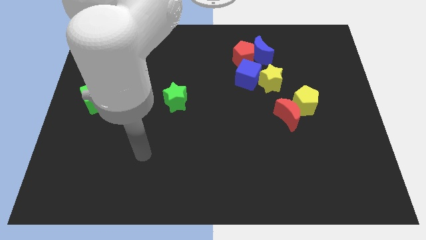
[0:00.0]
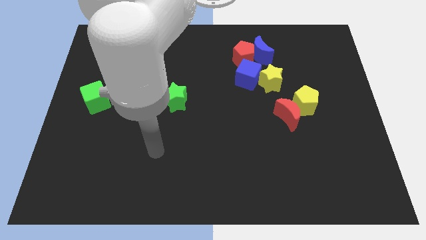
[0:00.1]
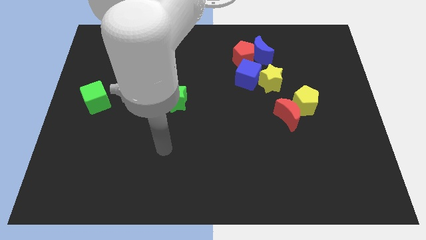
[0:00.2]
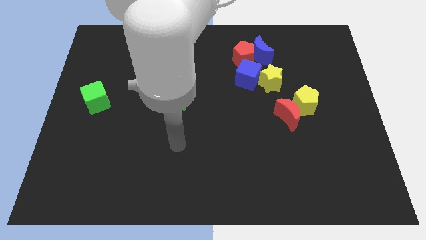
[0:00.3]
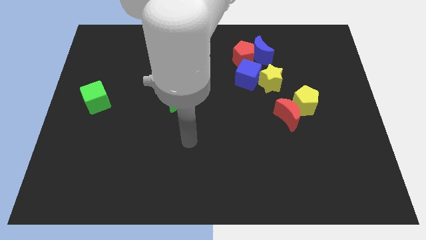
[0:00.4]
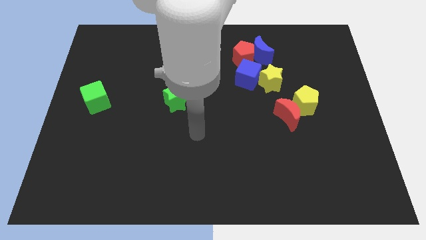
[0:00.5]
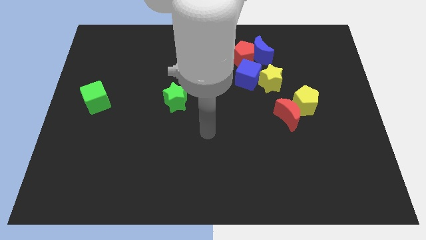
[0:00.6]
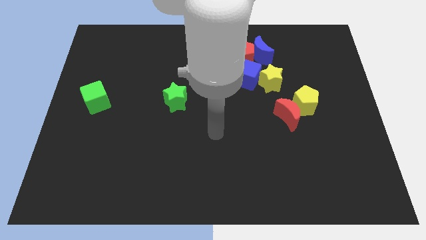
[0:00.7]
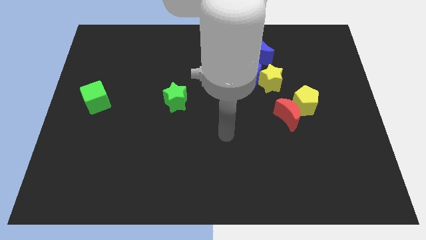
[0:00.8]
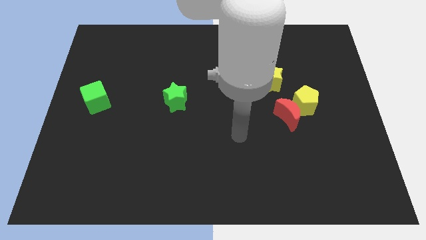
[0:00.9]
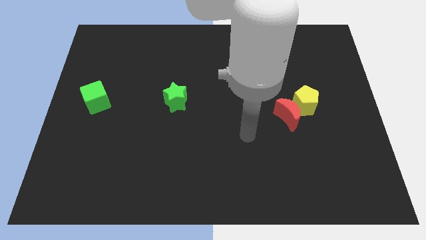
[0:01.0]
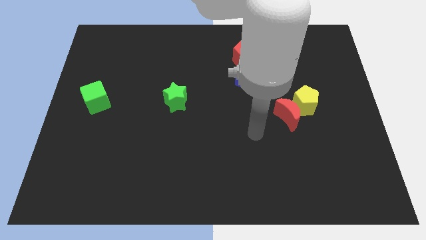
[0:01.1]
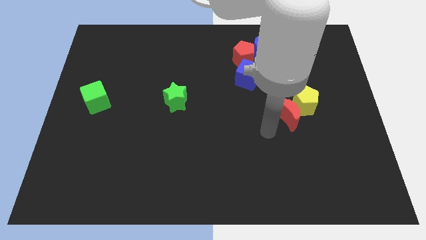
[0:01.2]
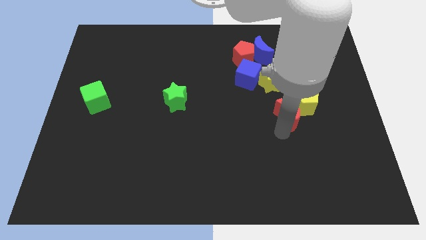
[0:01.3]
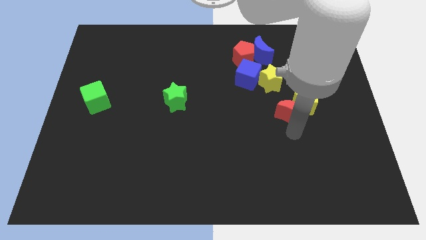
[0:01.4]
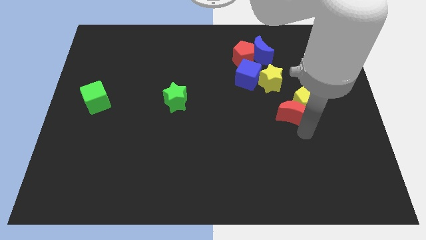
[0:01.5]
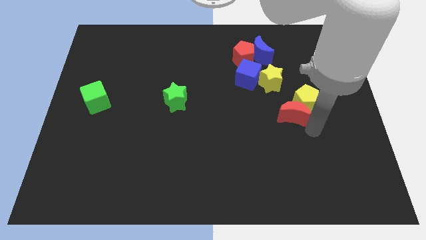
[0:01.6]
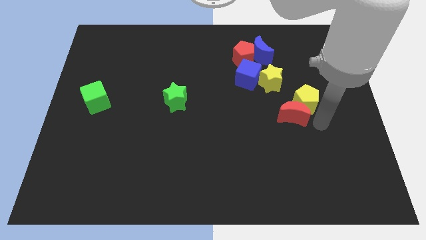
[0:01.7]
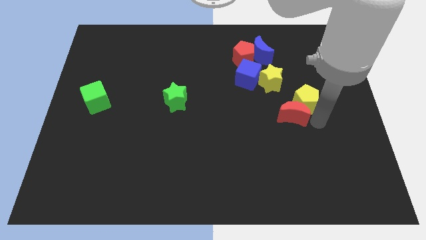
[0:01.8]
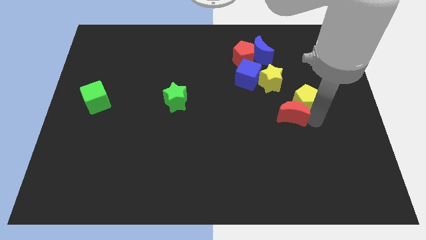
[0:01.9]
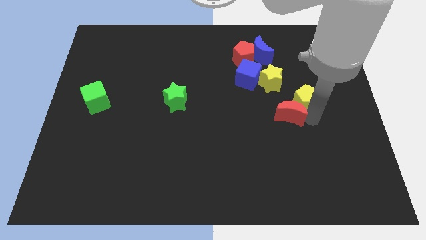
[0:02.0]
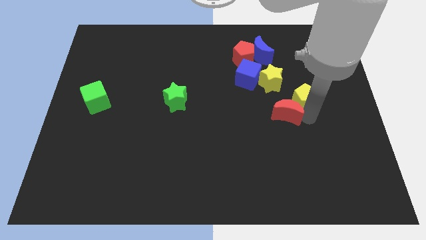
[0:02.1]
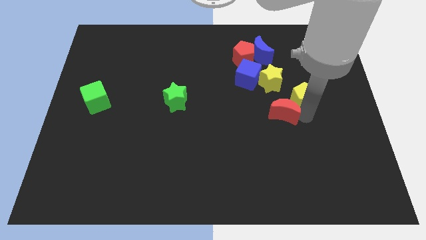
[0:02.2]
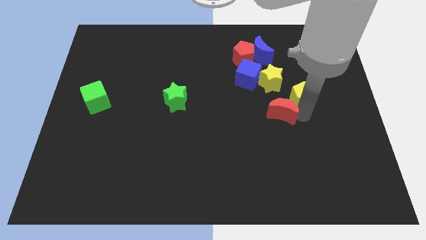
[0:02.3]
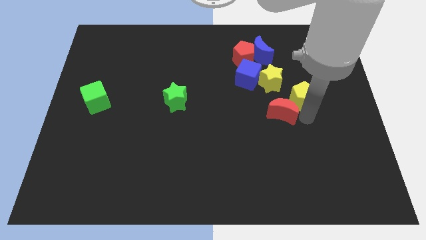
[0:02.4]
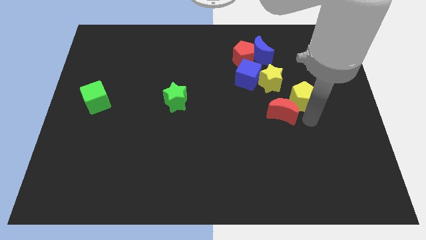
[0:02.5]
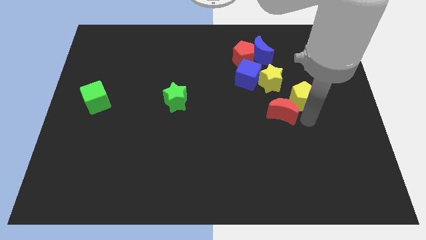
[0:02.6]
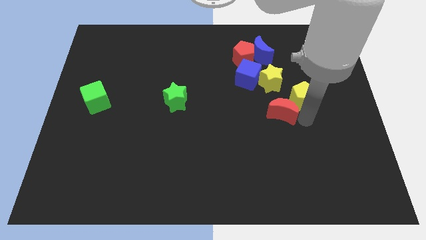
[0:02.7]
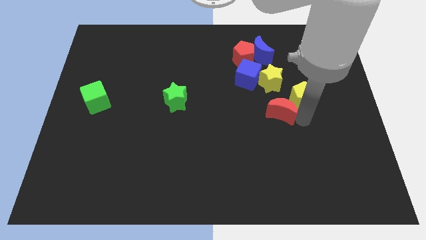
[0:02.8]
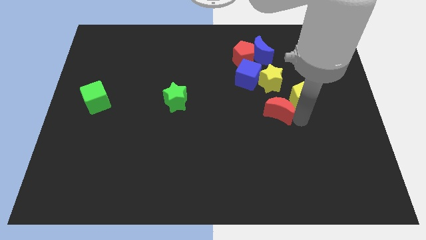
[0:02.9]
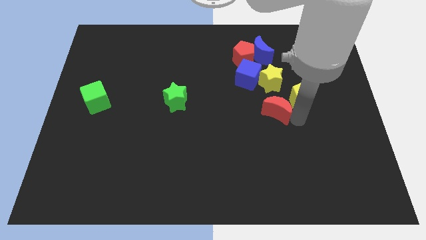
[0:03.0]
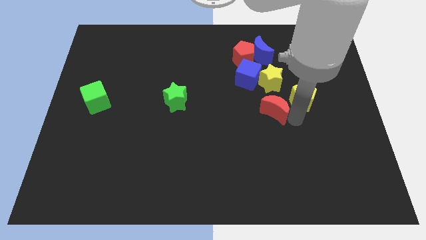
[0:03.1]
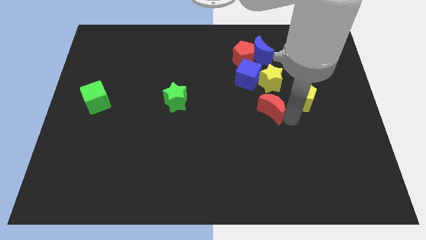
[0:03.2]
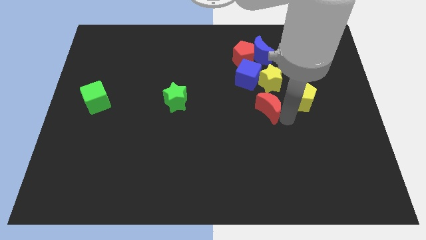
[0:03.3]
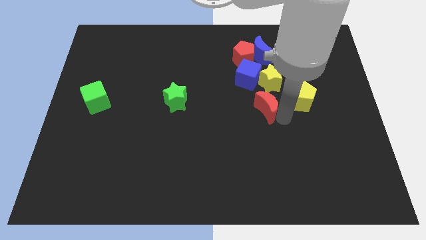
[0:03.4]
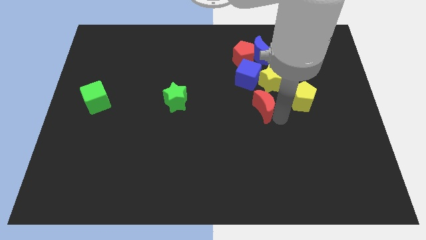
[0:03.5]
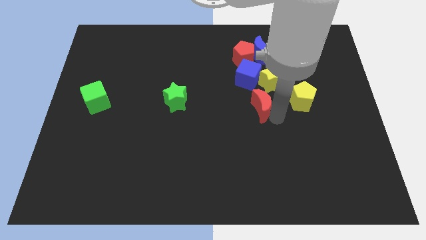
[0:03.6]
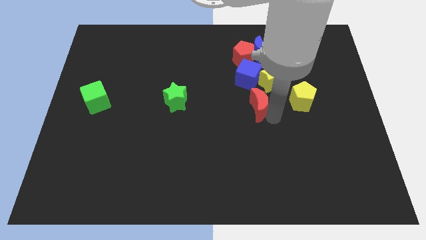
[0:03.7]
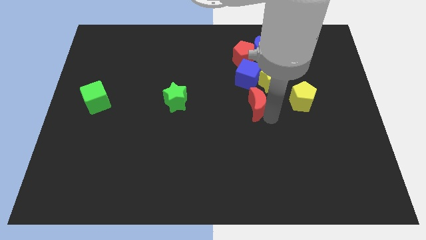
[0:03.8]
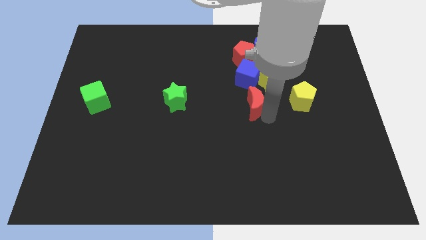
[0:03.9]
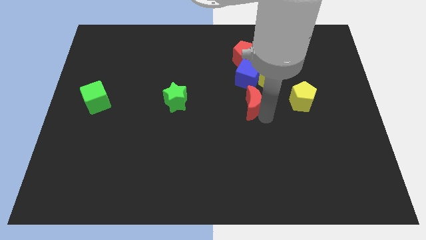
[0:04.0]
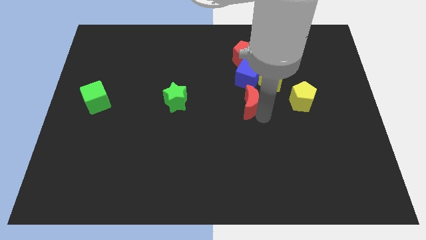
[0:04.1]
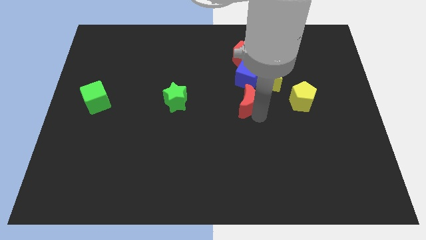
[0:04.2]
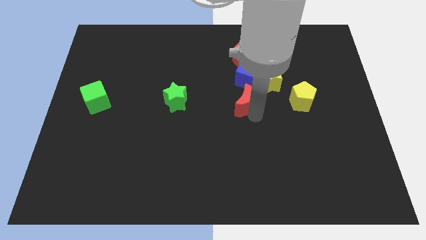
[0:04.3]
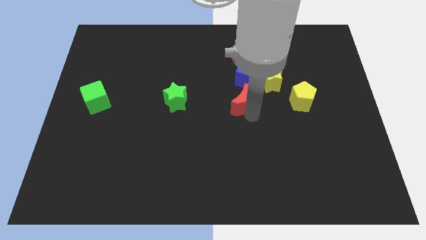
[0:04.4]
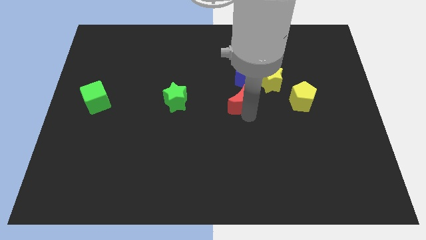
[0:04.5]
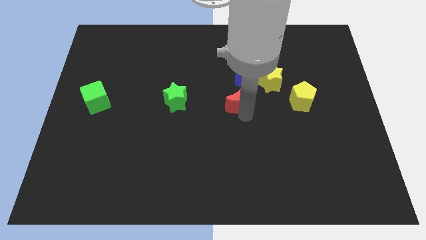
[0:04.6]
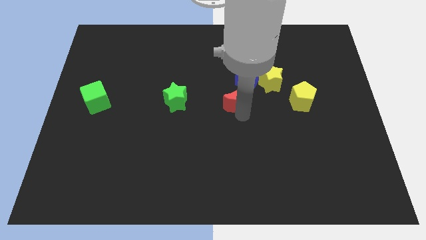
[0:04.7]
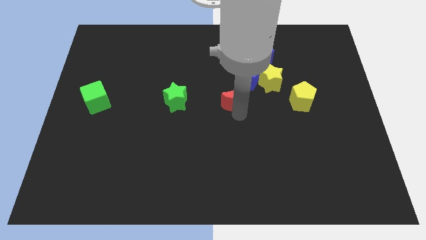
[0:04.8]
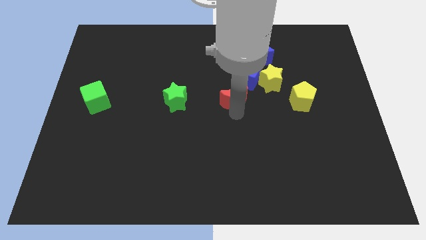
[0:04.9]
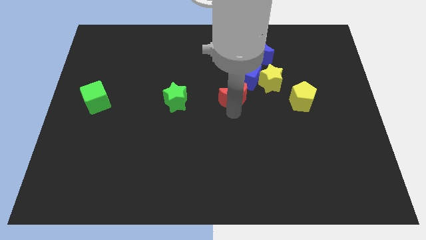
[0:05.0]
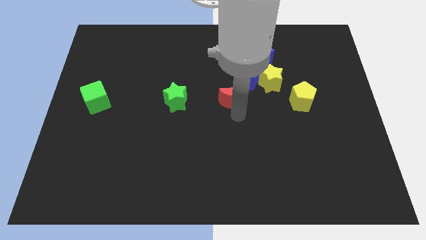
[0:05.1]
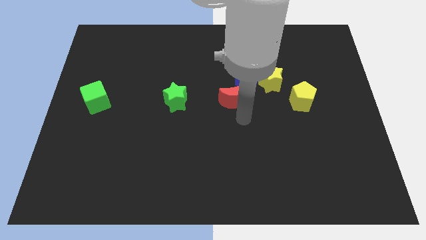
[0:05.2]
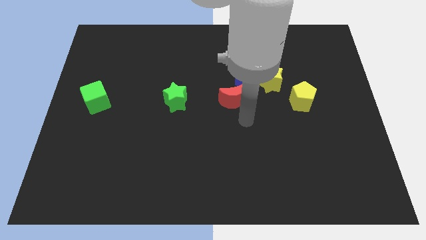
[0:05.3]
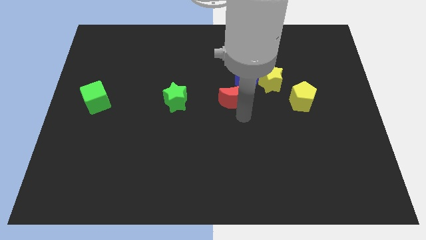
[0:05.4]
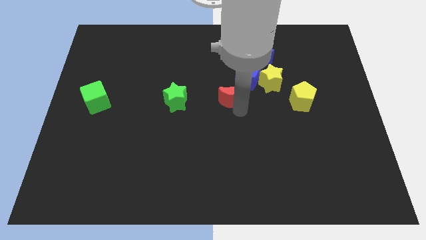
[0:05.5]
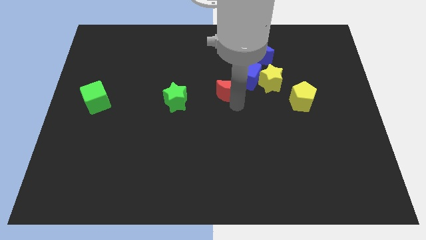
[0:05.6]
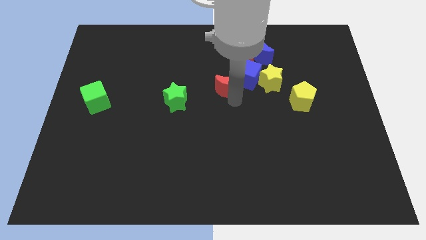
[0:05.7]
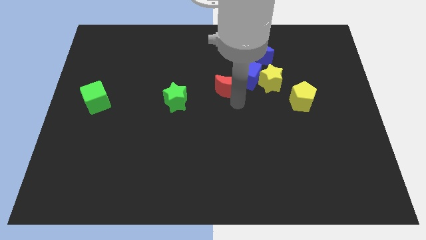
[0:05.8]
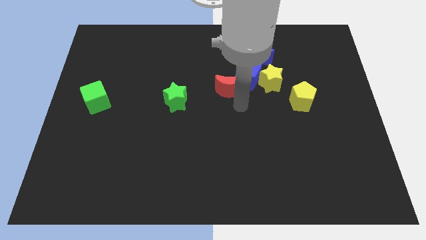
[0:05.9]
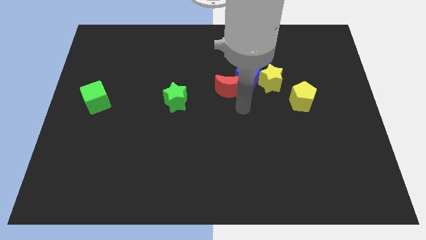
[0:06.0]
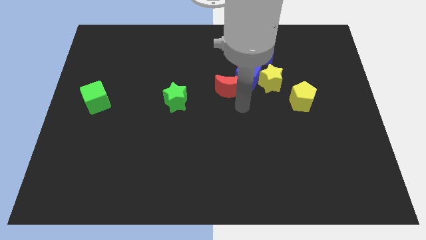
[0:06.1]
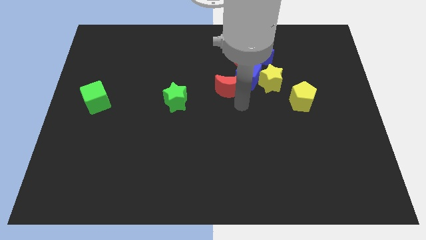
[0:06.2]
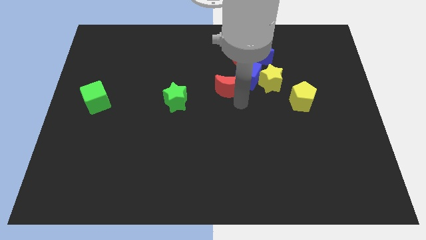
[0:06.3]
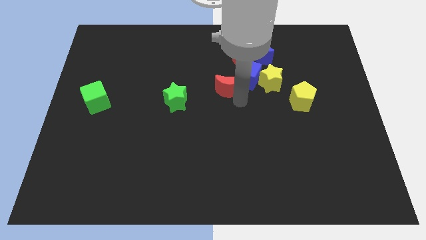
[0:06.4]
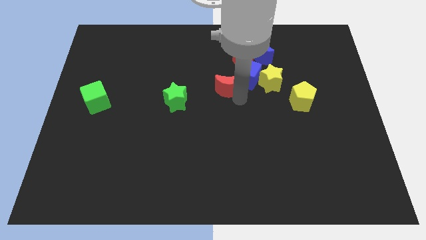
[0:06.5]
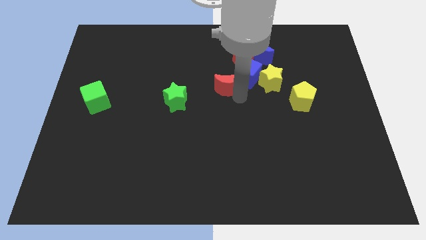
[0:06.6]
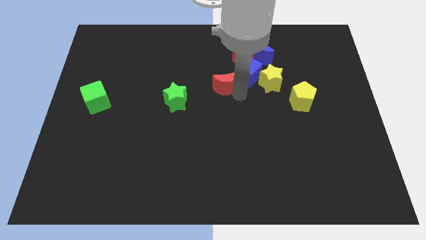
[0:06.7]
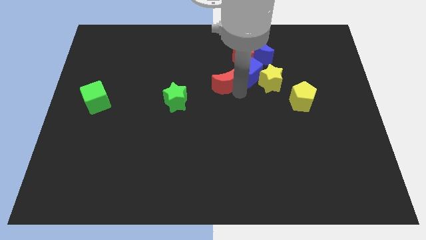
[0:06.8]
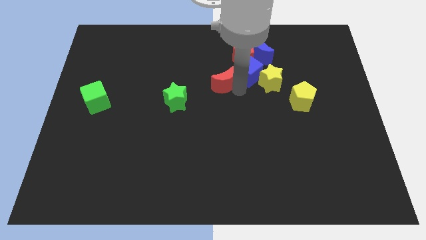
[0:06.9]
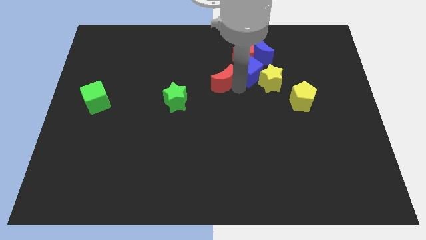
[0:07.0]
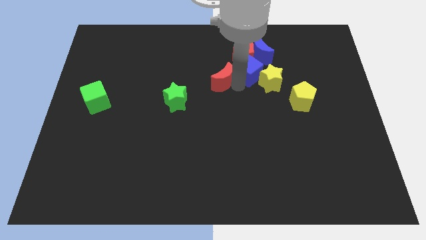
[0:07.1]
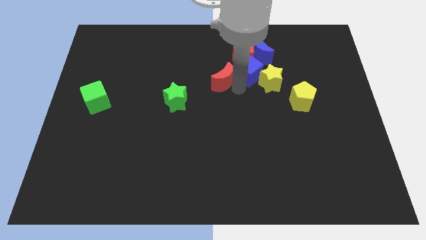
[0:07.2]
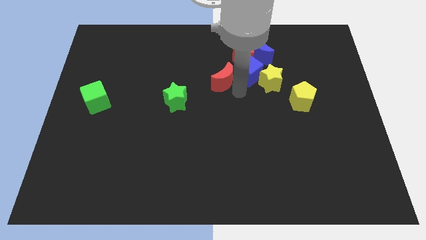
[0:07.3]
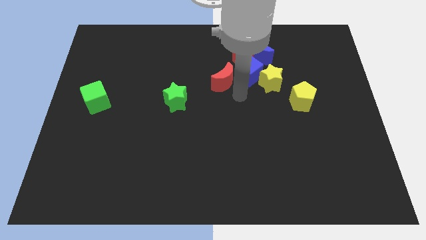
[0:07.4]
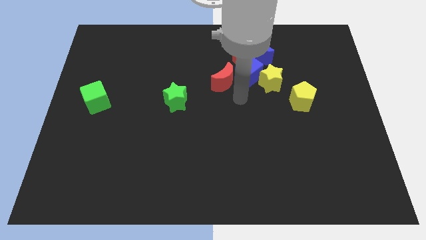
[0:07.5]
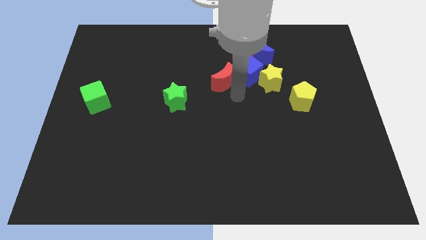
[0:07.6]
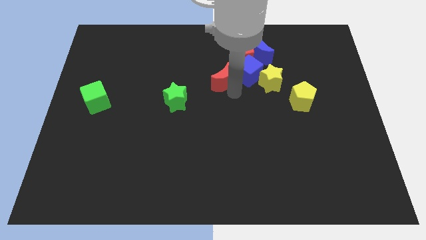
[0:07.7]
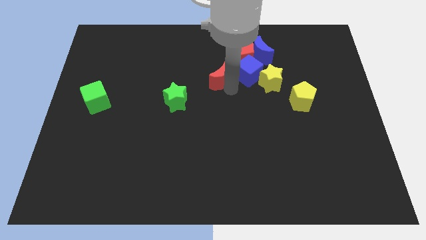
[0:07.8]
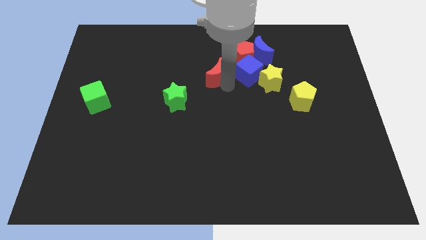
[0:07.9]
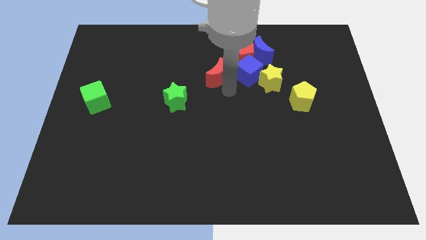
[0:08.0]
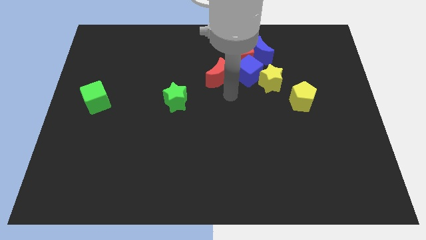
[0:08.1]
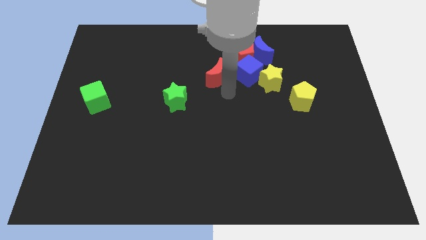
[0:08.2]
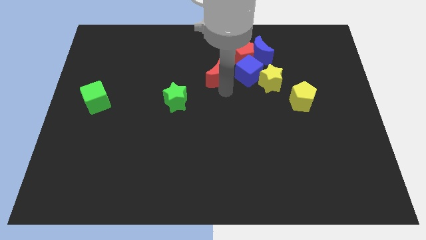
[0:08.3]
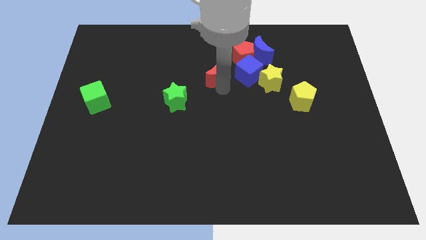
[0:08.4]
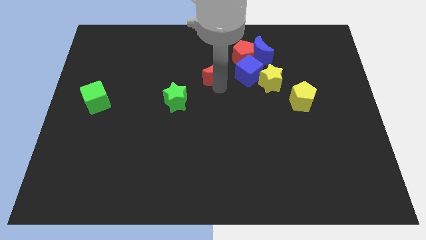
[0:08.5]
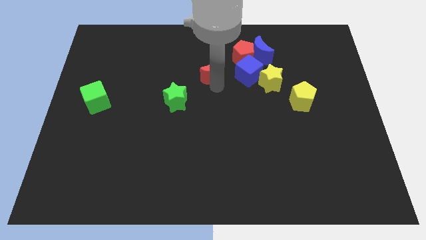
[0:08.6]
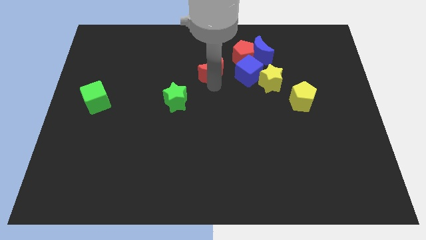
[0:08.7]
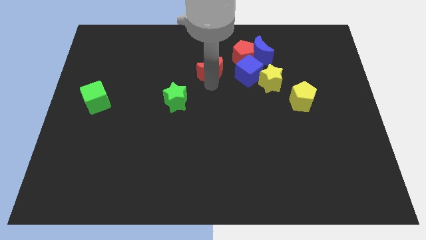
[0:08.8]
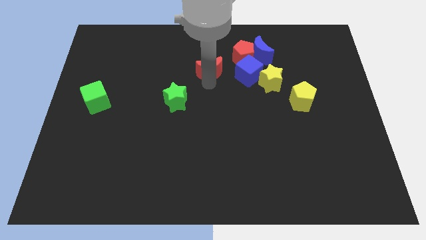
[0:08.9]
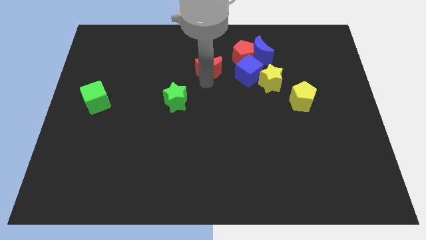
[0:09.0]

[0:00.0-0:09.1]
slide the red moon left of the red pentagon
